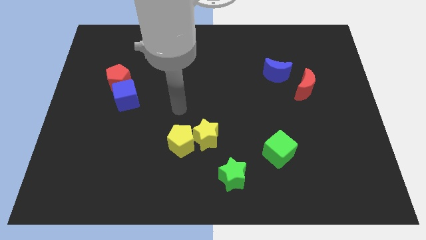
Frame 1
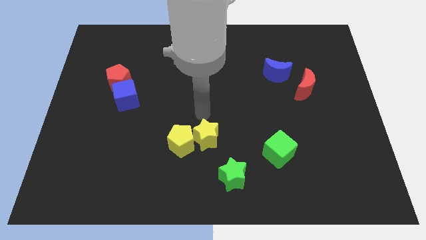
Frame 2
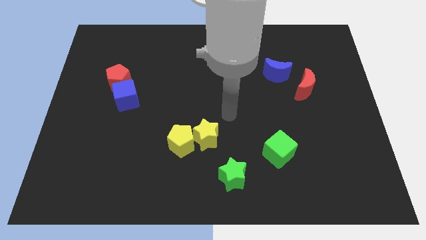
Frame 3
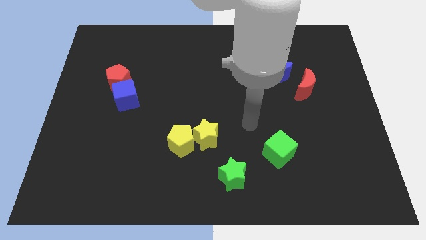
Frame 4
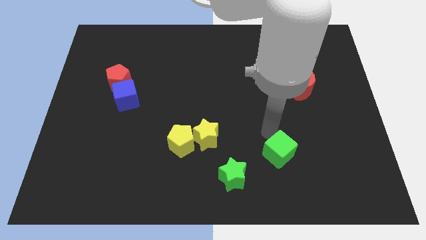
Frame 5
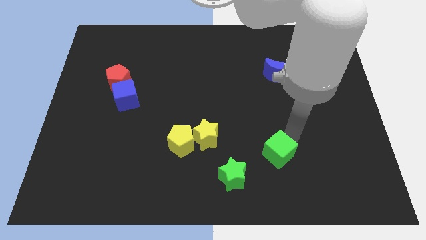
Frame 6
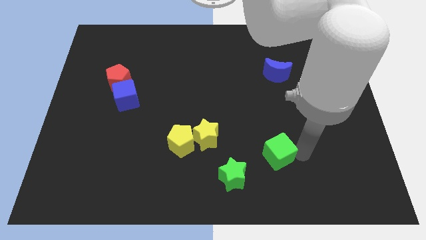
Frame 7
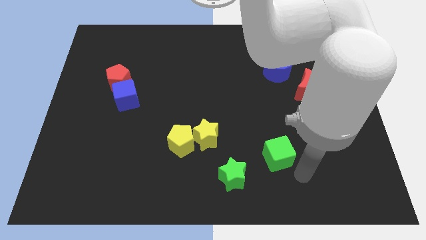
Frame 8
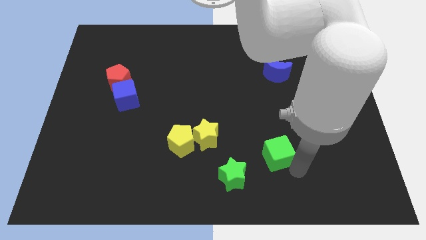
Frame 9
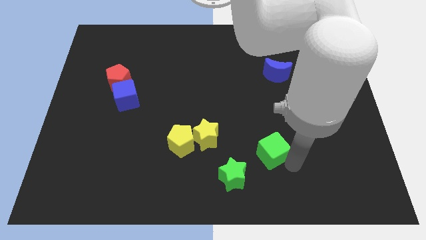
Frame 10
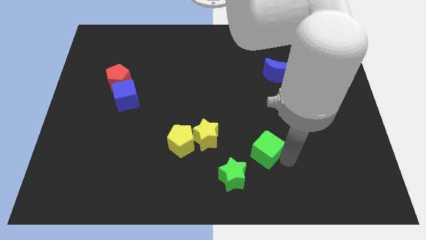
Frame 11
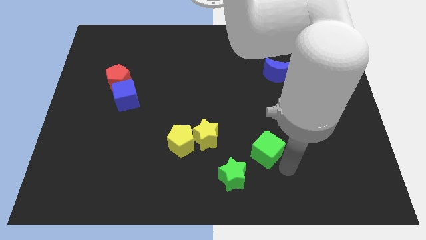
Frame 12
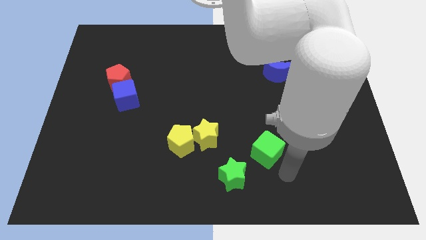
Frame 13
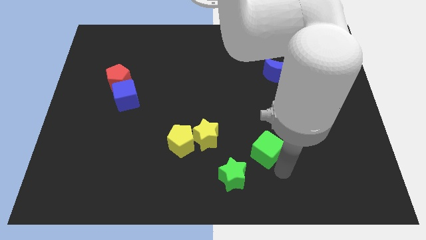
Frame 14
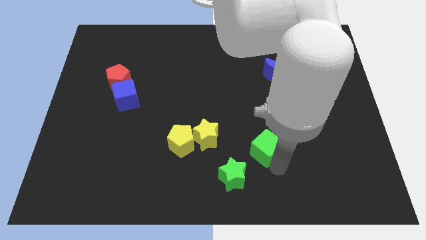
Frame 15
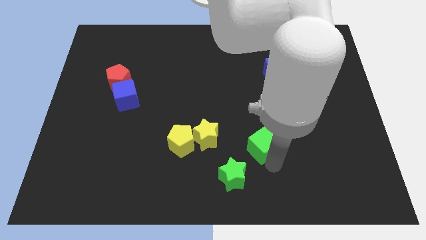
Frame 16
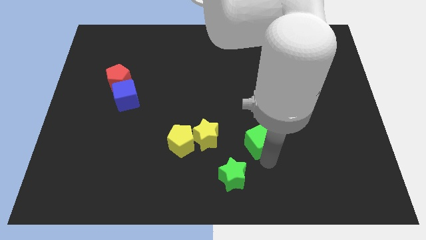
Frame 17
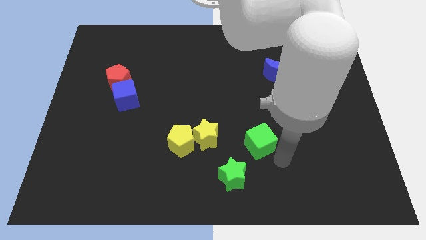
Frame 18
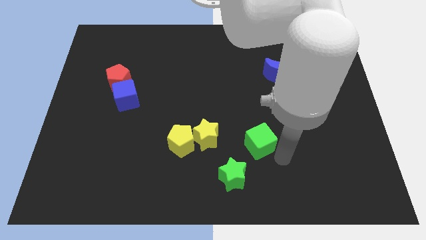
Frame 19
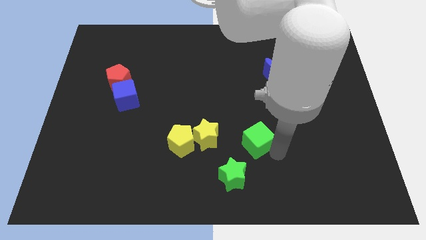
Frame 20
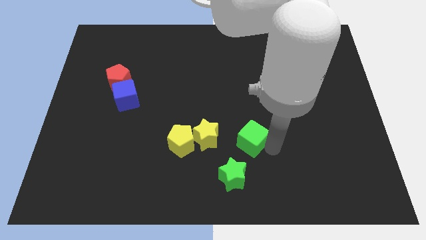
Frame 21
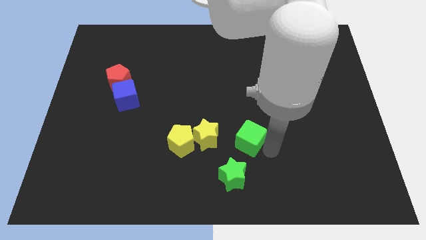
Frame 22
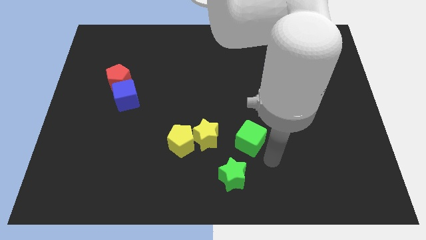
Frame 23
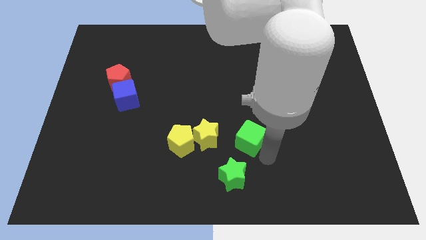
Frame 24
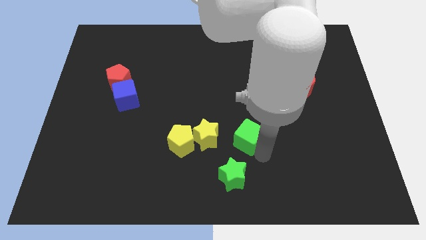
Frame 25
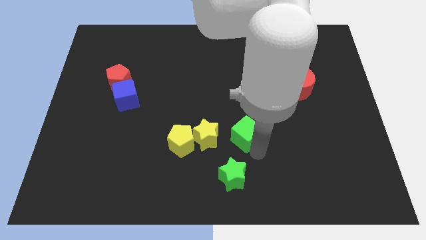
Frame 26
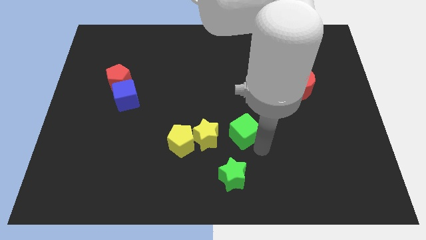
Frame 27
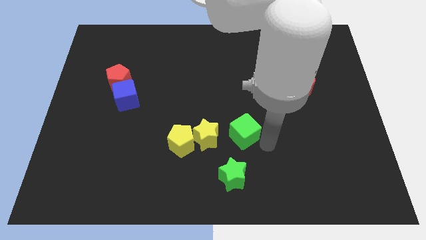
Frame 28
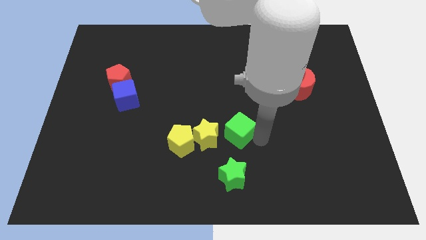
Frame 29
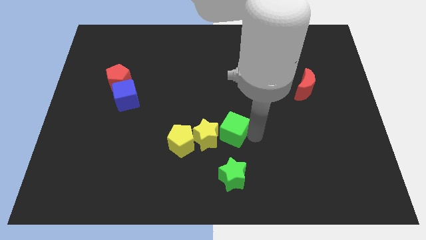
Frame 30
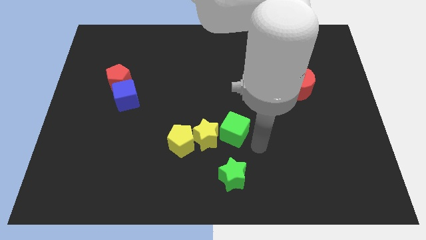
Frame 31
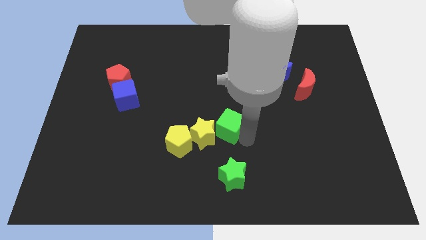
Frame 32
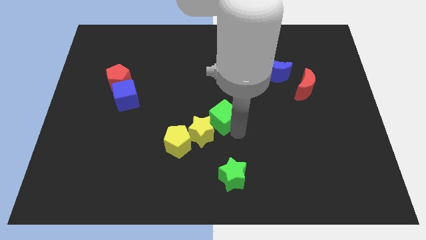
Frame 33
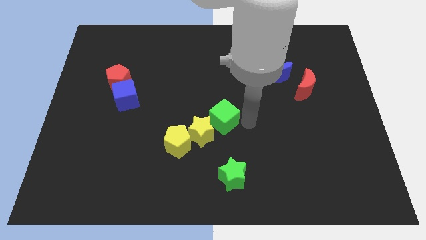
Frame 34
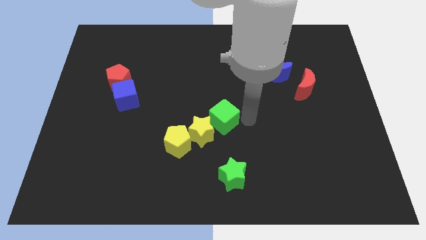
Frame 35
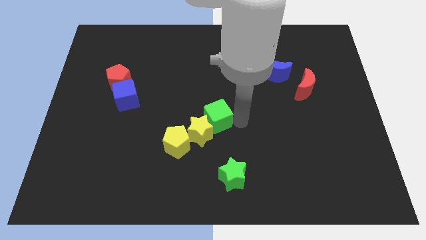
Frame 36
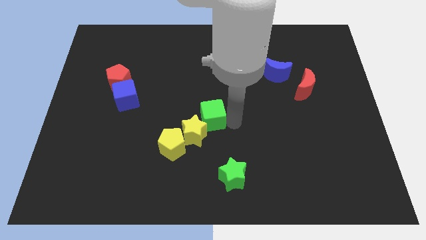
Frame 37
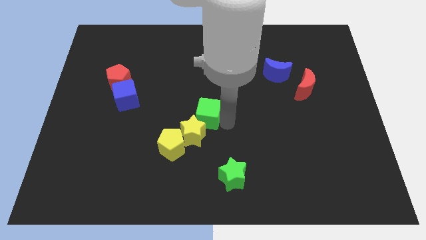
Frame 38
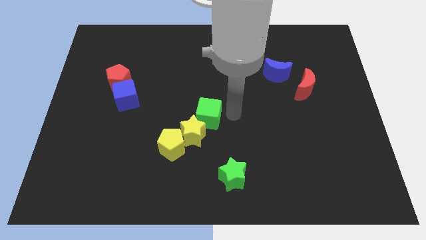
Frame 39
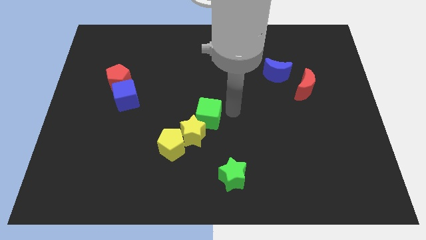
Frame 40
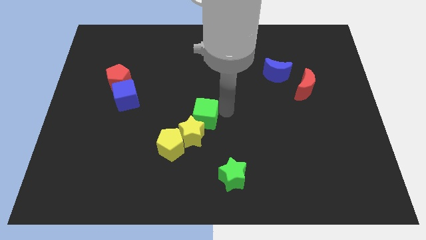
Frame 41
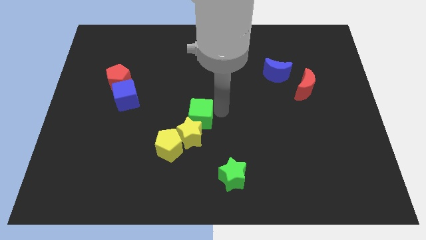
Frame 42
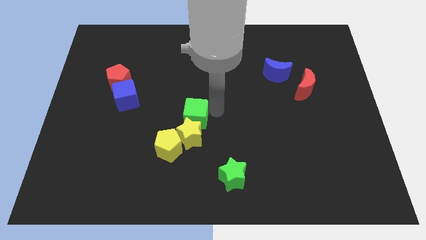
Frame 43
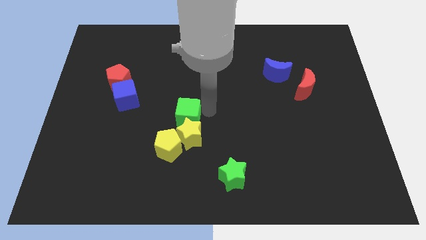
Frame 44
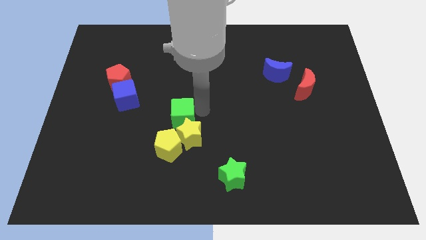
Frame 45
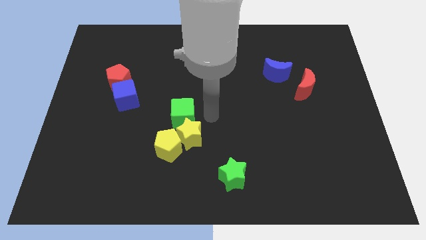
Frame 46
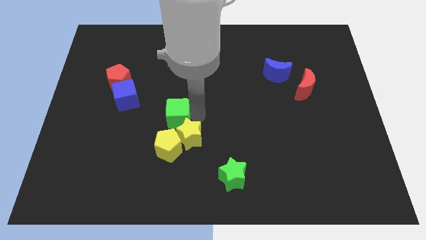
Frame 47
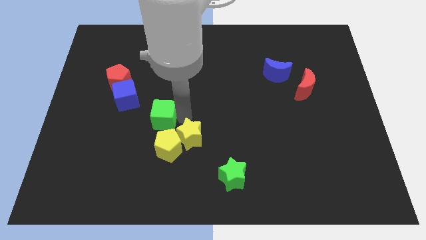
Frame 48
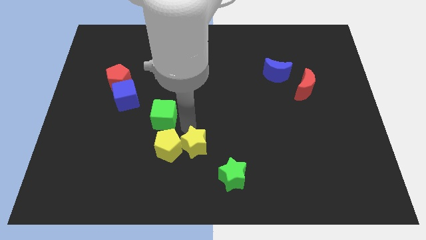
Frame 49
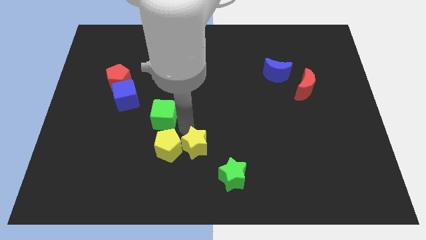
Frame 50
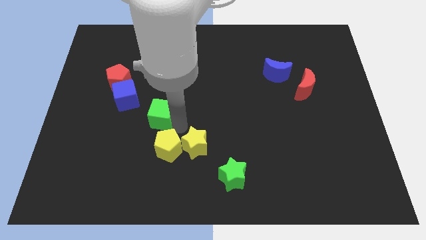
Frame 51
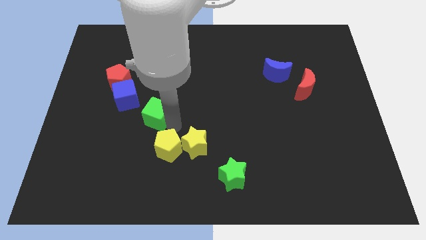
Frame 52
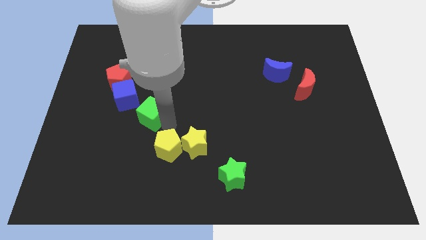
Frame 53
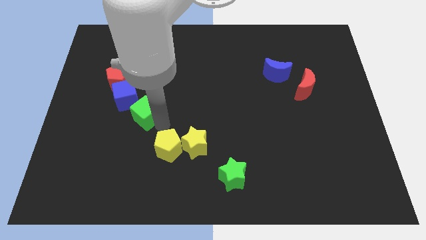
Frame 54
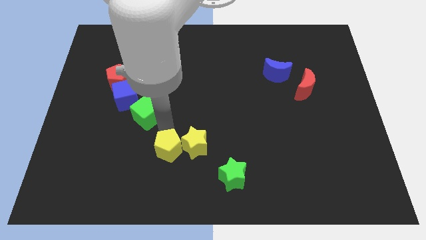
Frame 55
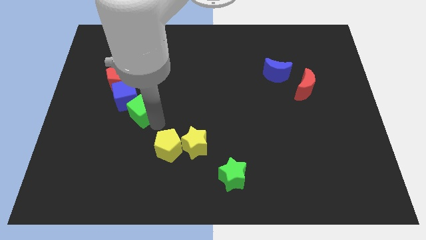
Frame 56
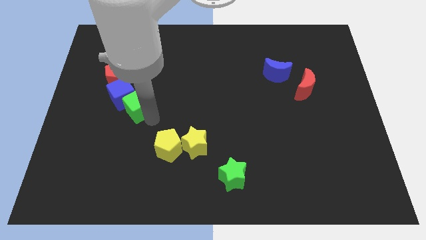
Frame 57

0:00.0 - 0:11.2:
push the green cube towards the blue cube

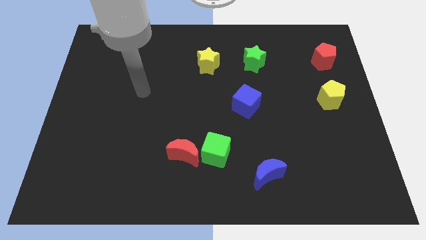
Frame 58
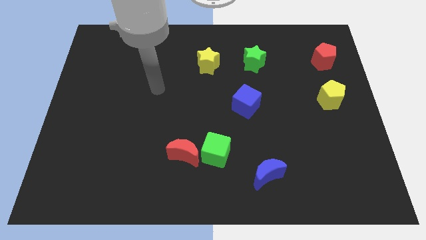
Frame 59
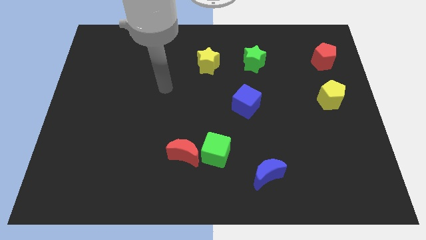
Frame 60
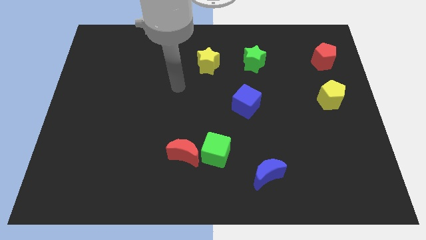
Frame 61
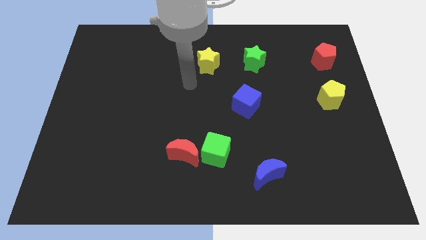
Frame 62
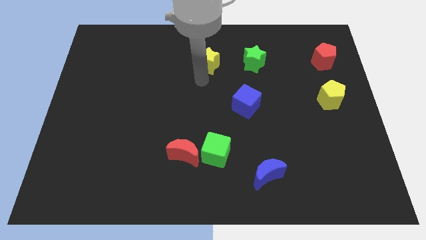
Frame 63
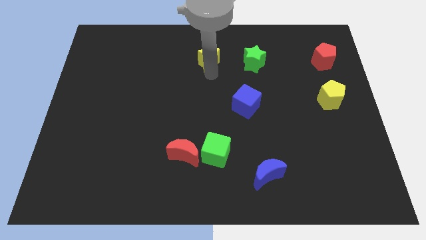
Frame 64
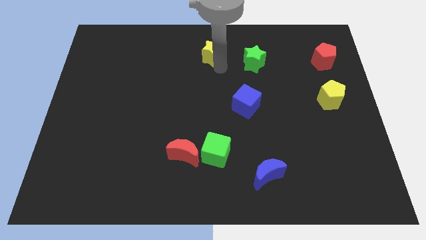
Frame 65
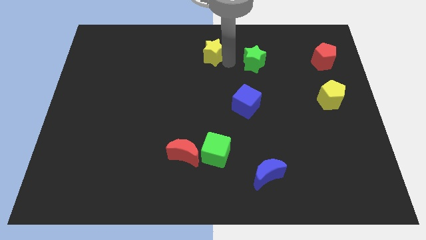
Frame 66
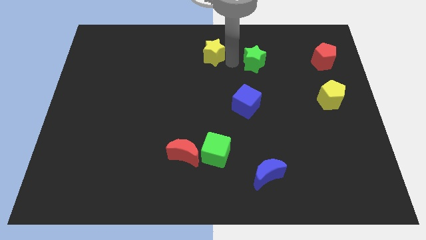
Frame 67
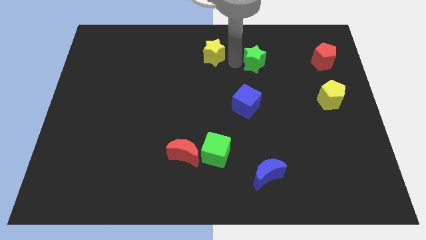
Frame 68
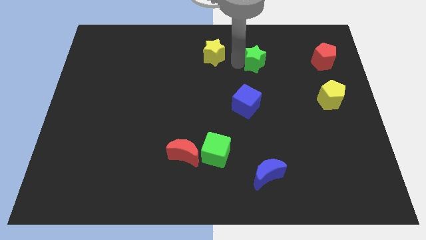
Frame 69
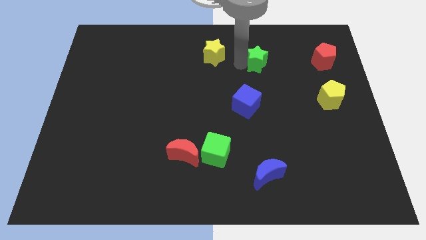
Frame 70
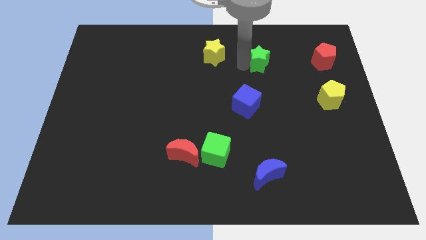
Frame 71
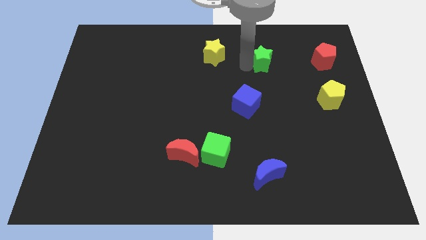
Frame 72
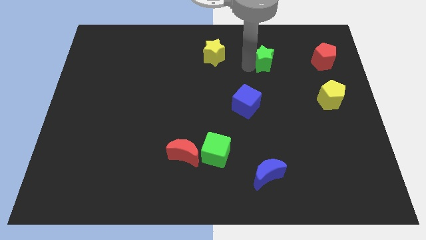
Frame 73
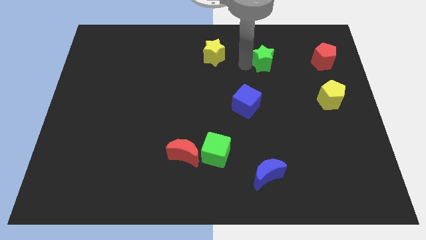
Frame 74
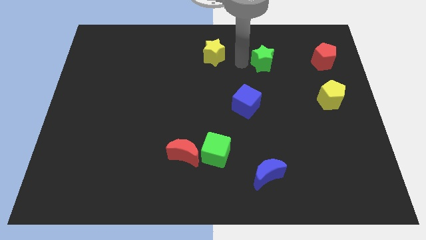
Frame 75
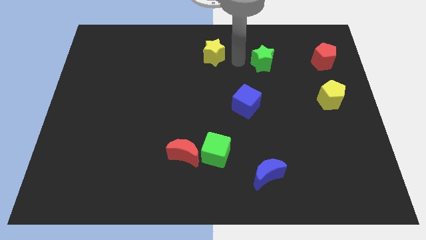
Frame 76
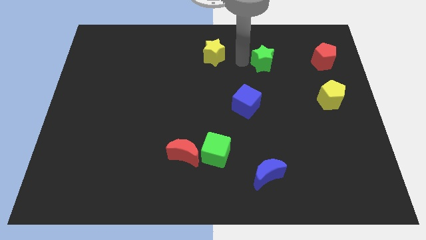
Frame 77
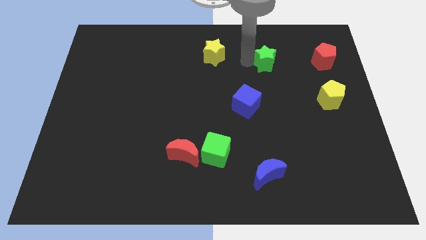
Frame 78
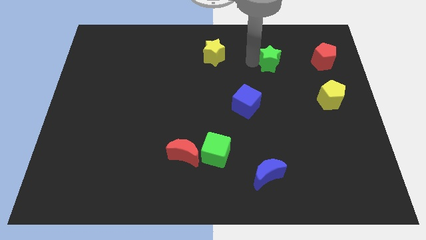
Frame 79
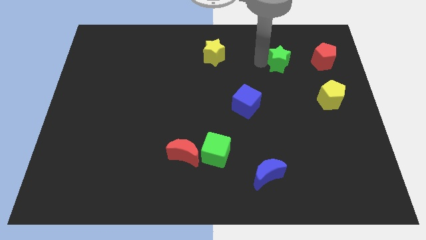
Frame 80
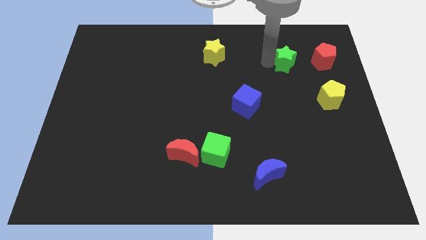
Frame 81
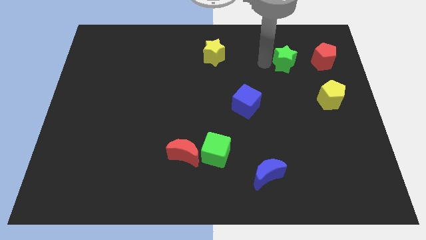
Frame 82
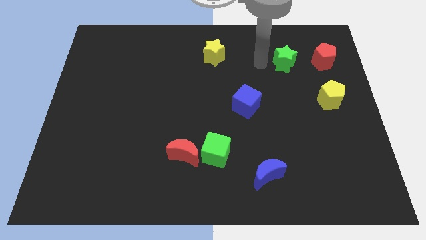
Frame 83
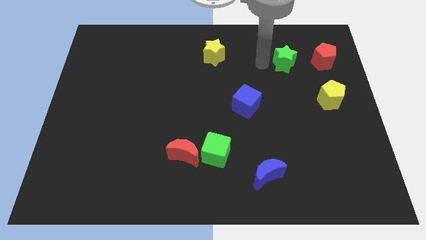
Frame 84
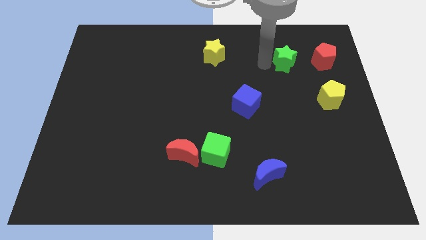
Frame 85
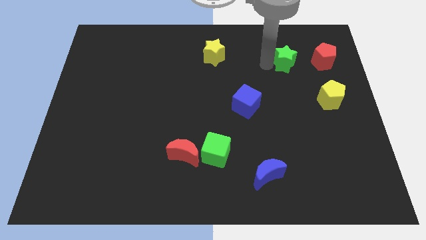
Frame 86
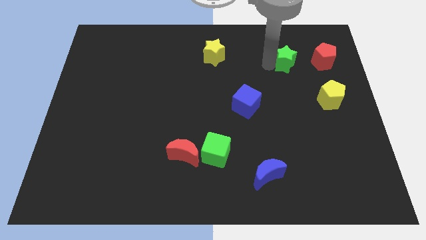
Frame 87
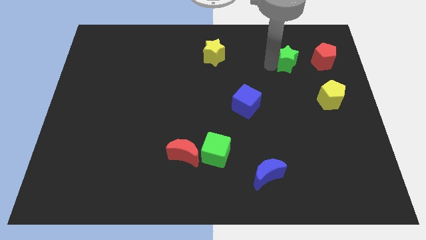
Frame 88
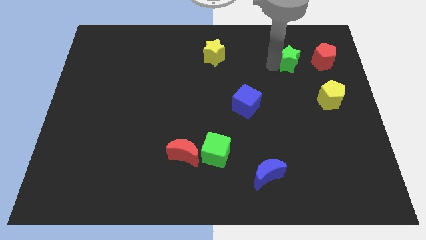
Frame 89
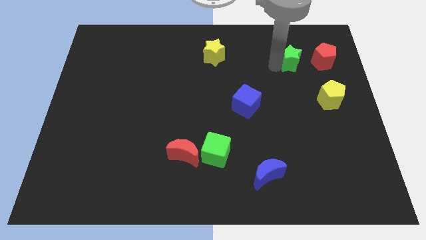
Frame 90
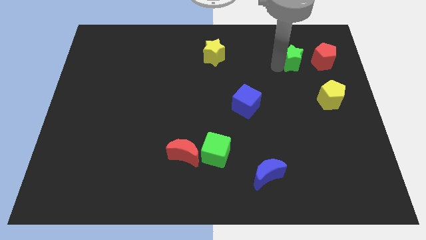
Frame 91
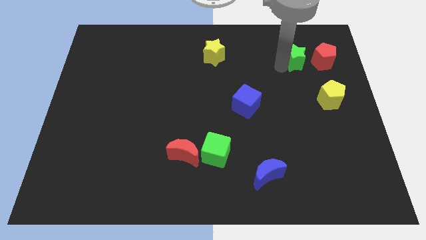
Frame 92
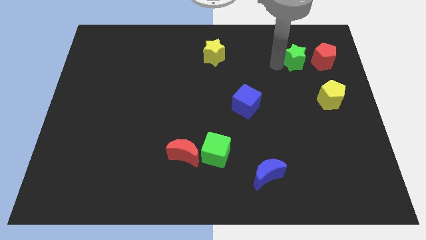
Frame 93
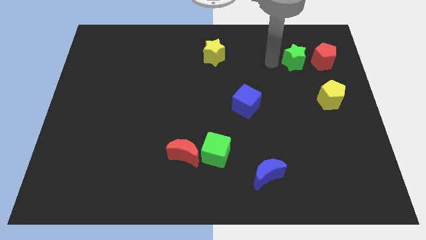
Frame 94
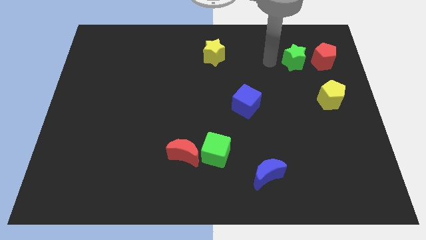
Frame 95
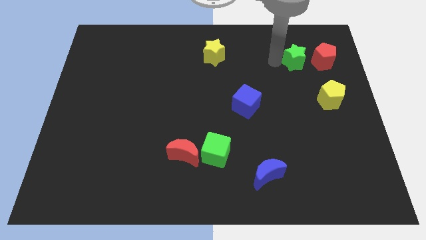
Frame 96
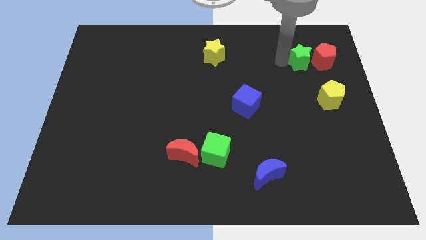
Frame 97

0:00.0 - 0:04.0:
move the green star towards the red pentagon
